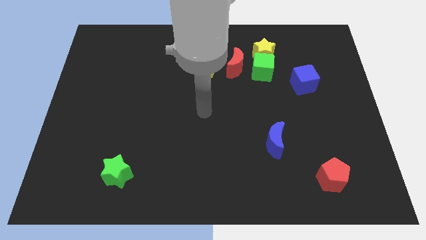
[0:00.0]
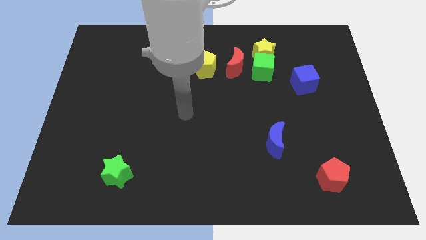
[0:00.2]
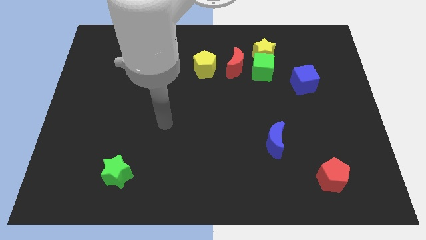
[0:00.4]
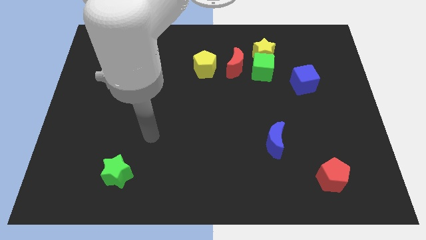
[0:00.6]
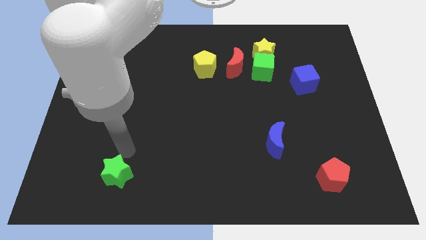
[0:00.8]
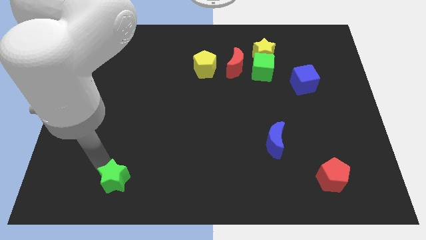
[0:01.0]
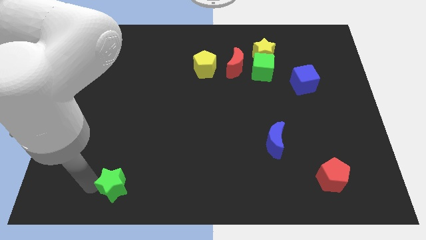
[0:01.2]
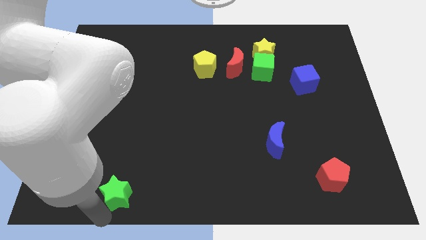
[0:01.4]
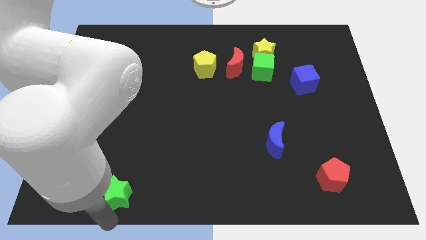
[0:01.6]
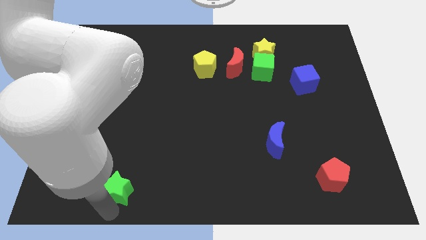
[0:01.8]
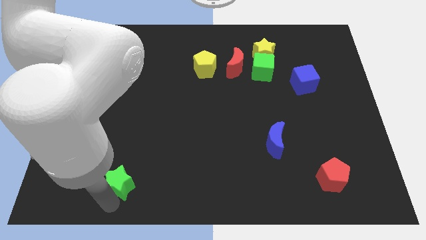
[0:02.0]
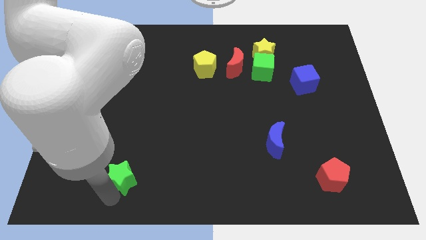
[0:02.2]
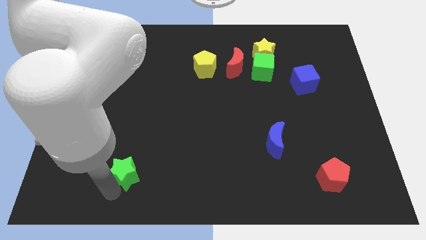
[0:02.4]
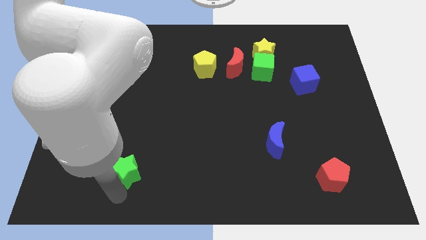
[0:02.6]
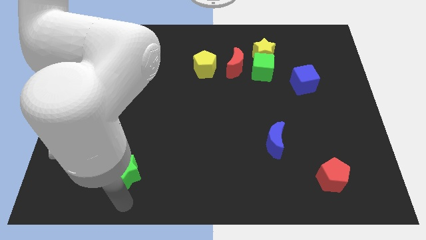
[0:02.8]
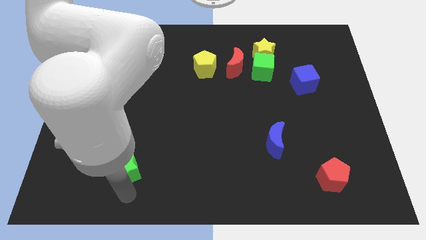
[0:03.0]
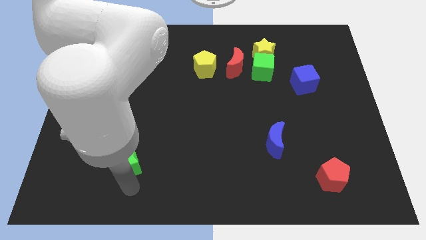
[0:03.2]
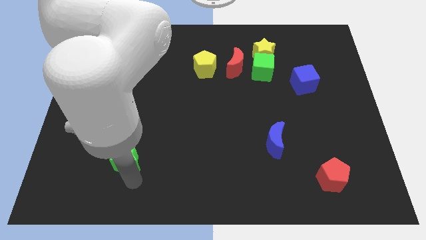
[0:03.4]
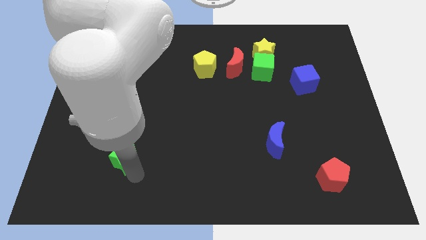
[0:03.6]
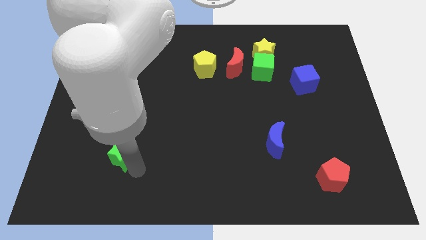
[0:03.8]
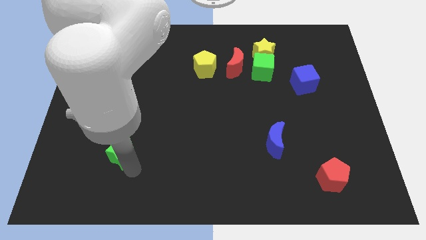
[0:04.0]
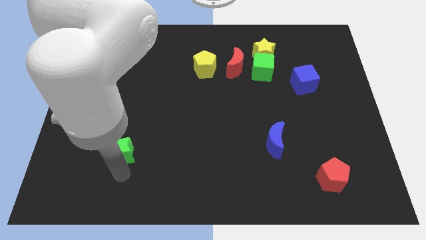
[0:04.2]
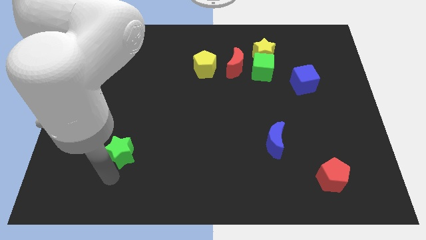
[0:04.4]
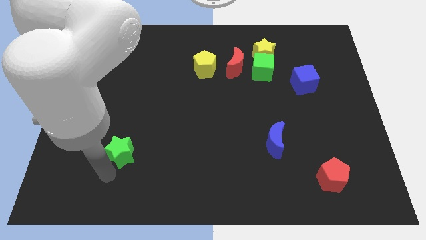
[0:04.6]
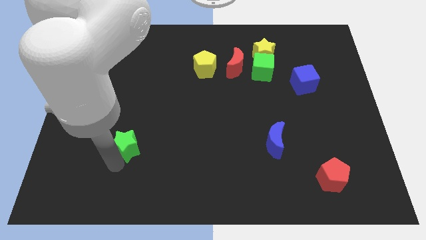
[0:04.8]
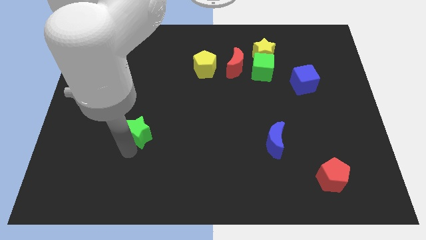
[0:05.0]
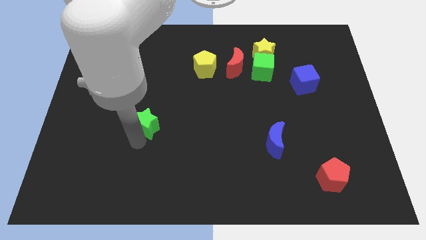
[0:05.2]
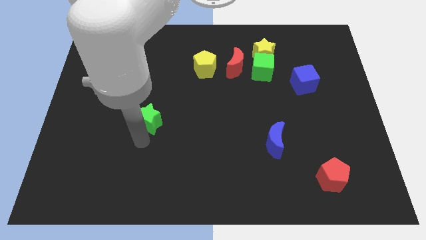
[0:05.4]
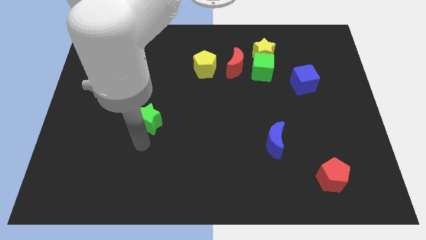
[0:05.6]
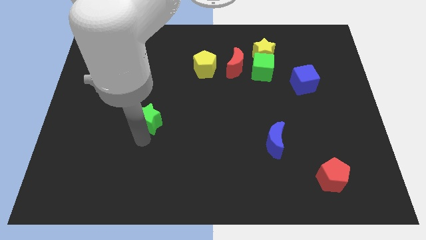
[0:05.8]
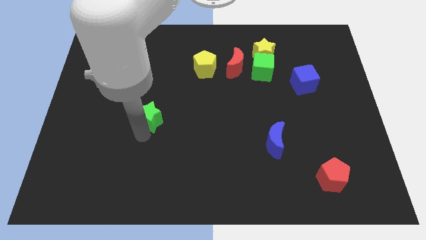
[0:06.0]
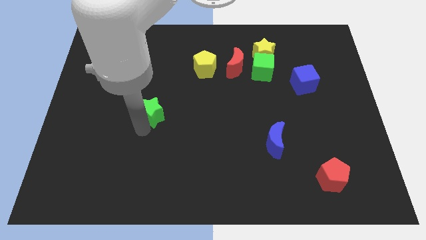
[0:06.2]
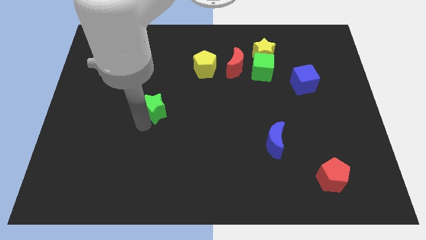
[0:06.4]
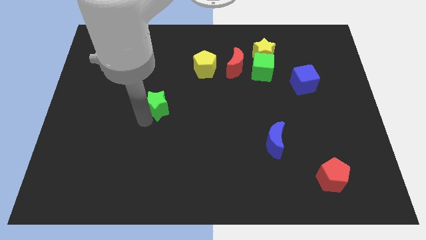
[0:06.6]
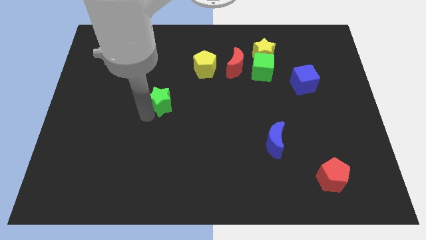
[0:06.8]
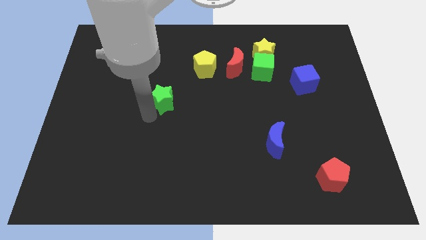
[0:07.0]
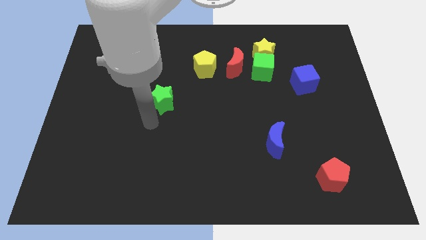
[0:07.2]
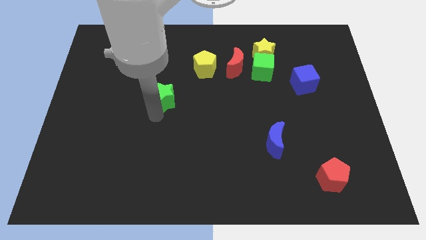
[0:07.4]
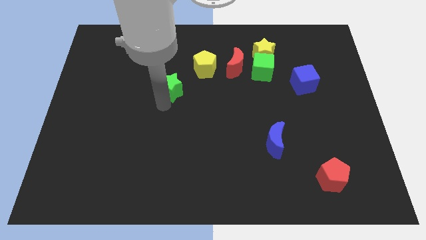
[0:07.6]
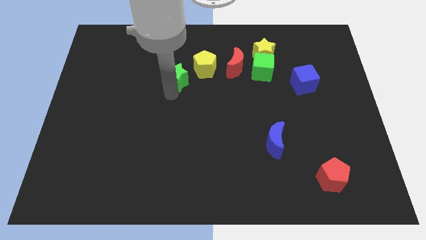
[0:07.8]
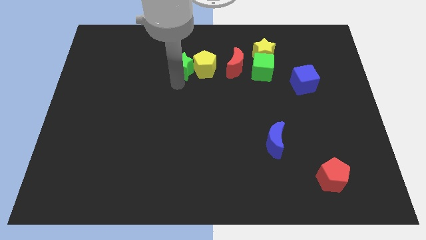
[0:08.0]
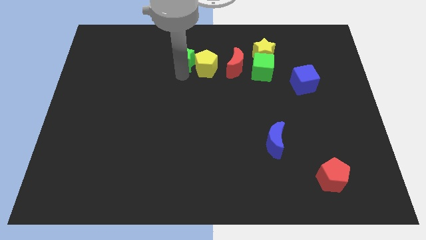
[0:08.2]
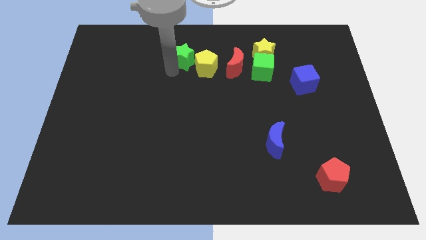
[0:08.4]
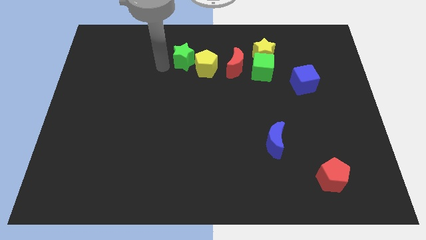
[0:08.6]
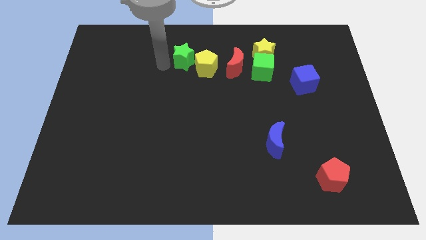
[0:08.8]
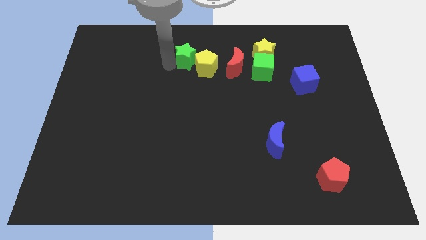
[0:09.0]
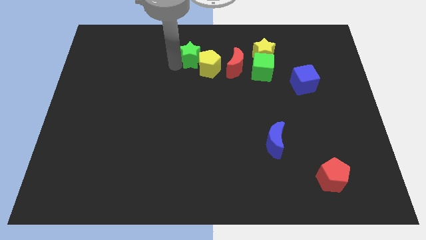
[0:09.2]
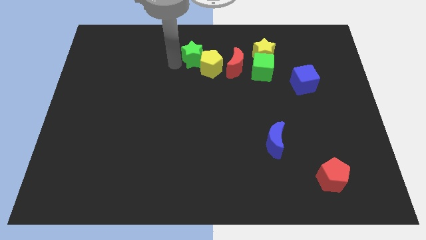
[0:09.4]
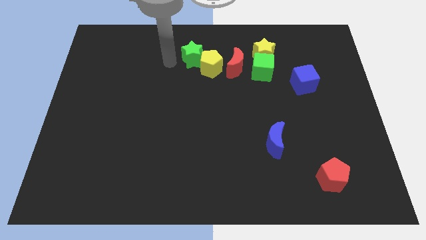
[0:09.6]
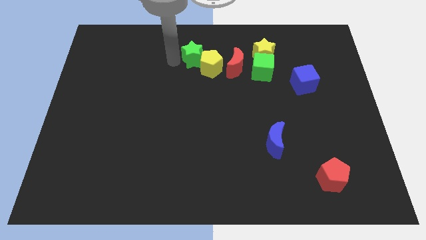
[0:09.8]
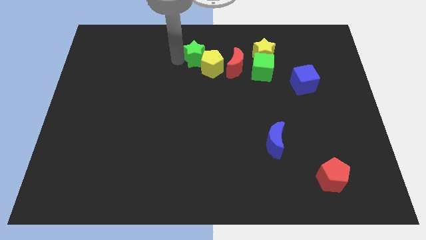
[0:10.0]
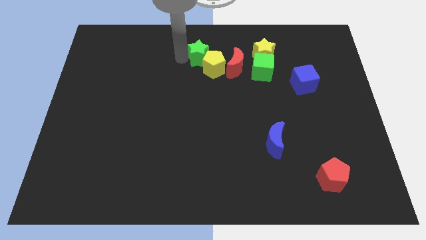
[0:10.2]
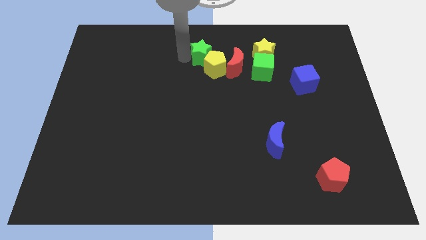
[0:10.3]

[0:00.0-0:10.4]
move the green star left of the yellow star
